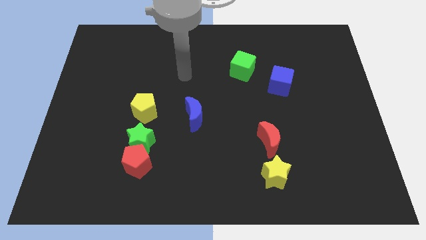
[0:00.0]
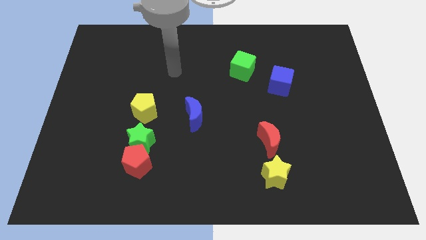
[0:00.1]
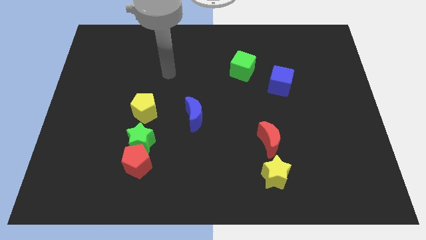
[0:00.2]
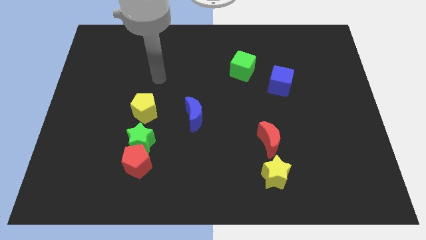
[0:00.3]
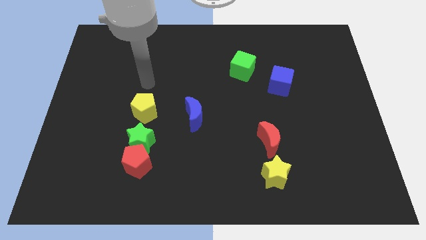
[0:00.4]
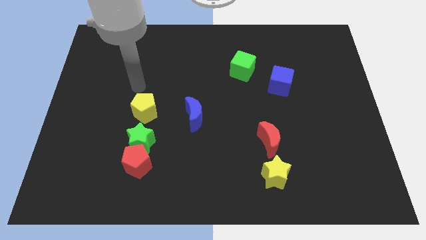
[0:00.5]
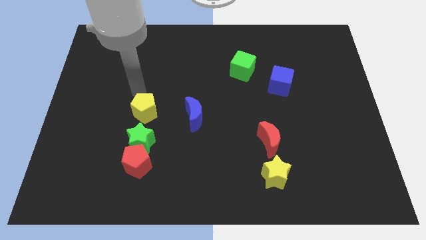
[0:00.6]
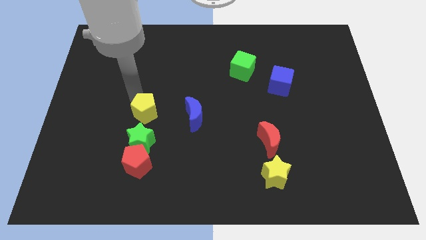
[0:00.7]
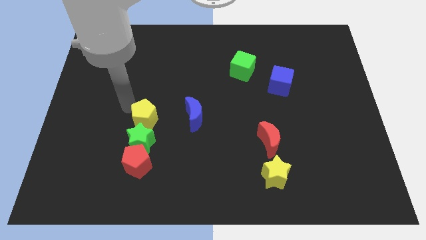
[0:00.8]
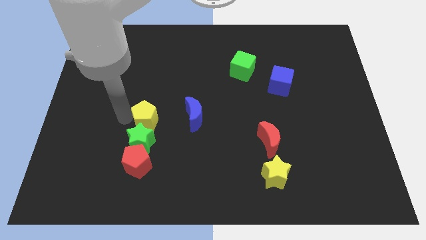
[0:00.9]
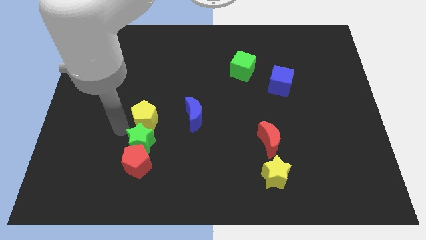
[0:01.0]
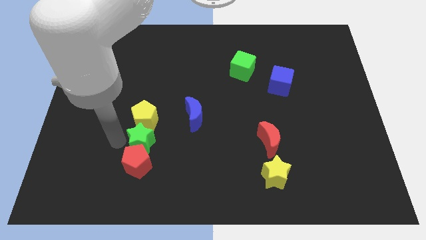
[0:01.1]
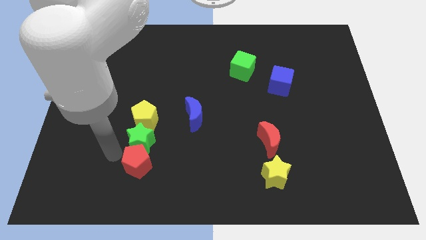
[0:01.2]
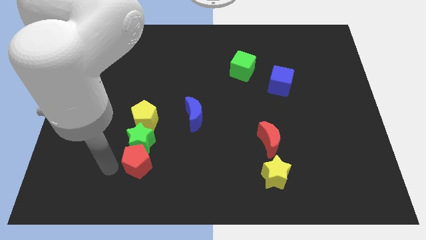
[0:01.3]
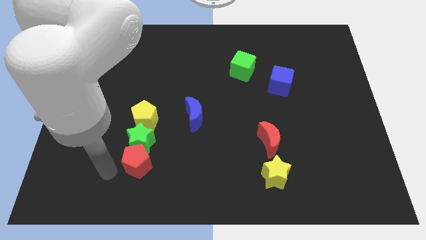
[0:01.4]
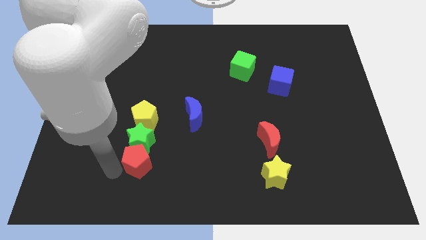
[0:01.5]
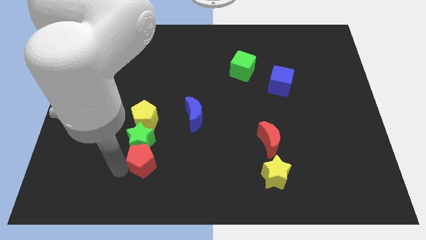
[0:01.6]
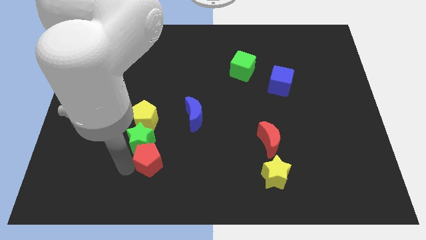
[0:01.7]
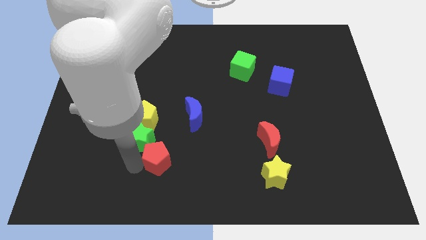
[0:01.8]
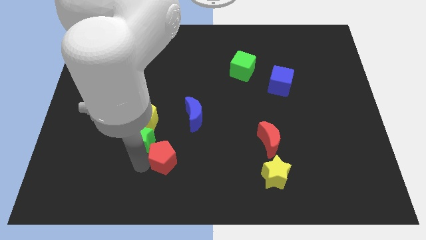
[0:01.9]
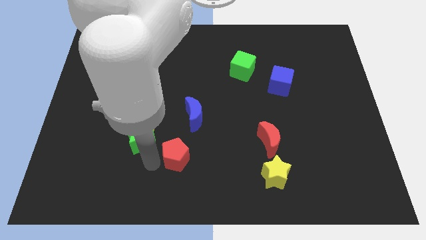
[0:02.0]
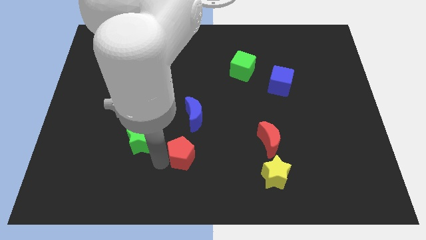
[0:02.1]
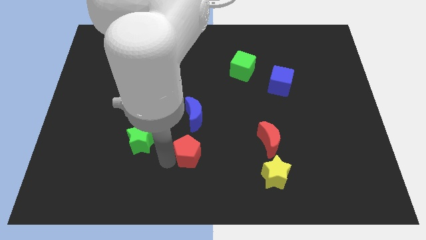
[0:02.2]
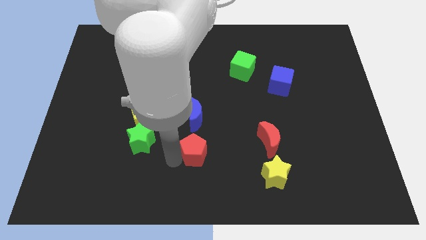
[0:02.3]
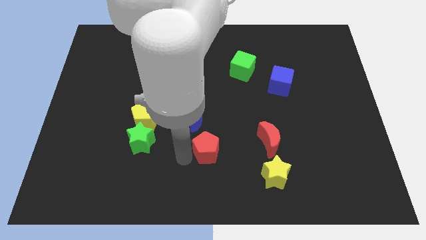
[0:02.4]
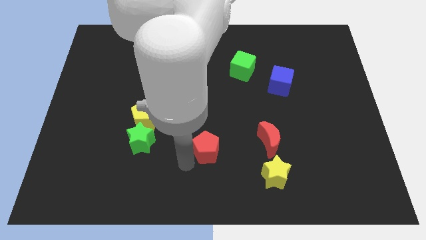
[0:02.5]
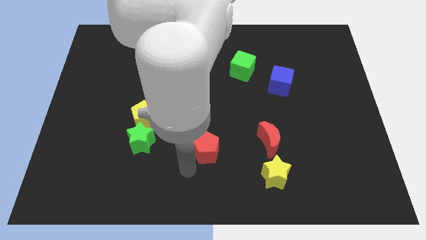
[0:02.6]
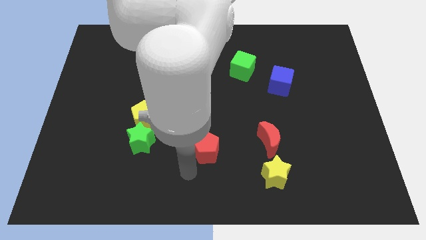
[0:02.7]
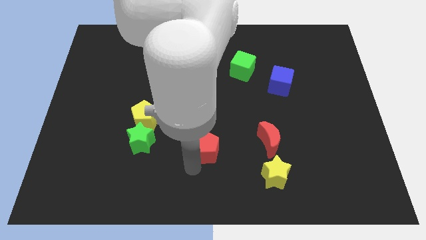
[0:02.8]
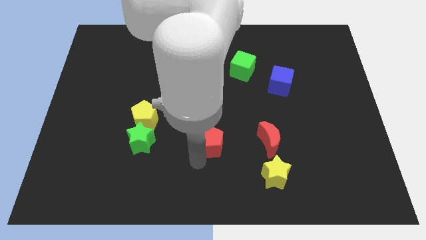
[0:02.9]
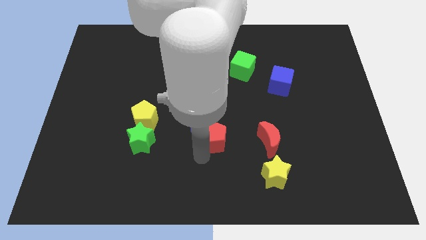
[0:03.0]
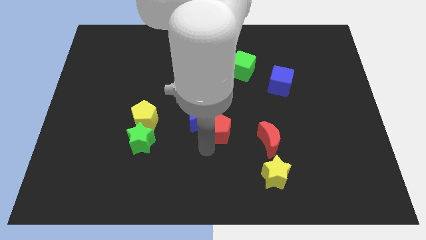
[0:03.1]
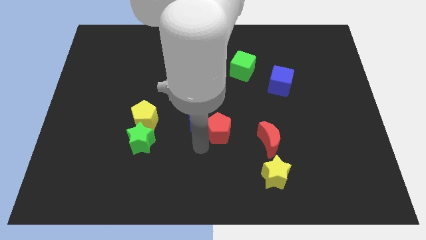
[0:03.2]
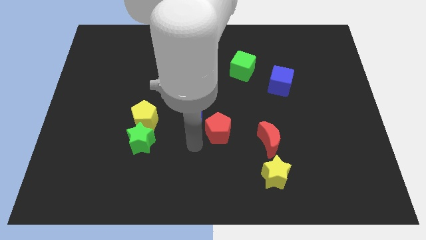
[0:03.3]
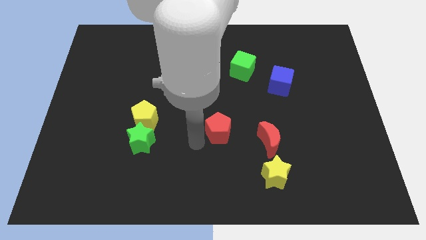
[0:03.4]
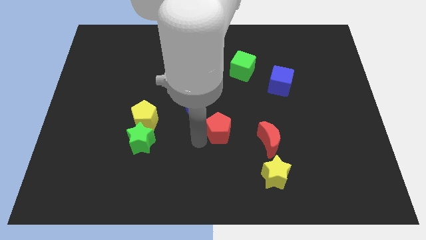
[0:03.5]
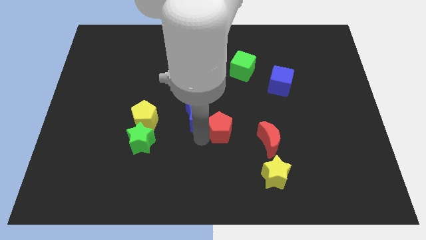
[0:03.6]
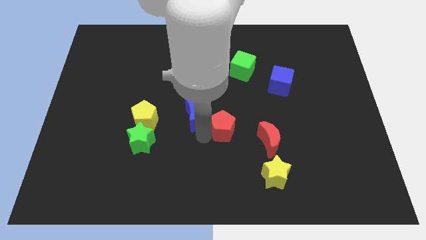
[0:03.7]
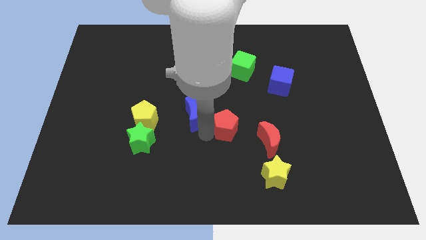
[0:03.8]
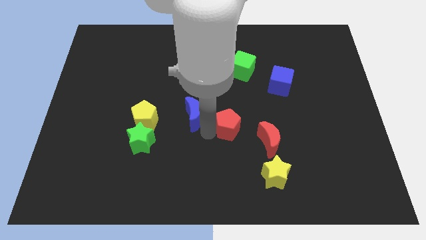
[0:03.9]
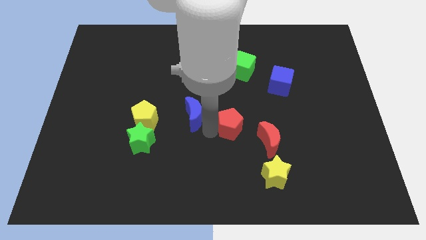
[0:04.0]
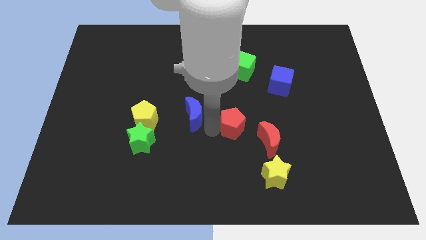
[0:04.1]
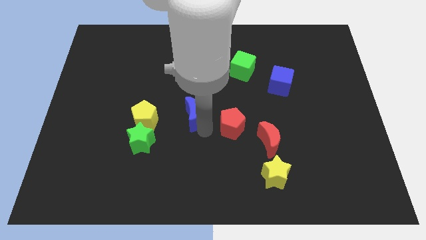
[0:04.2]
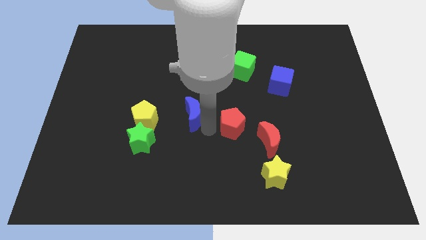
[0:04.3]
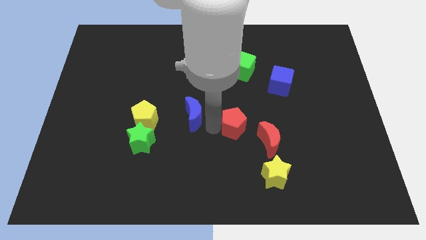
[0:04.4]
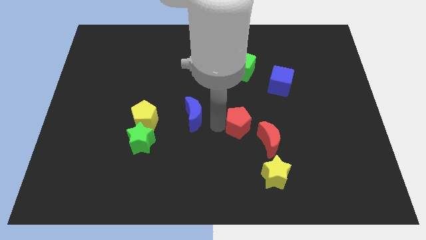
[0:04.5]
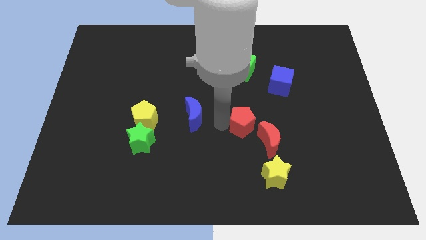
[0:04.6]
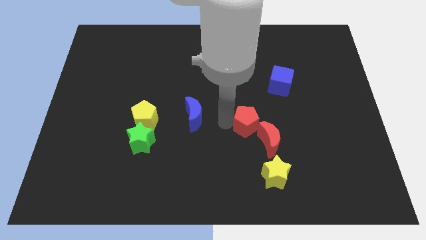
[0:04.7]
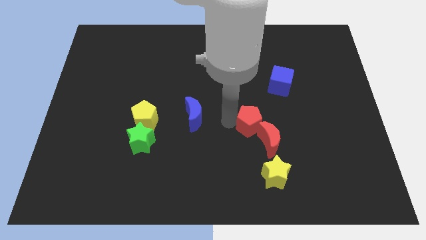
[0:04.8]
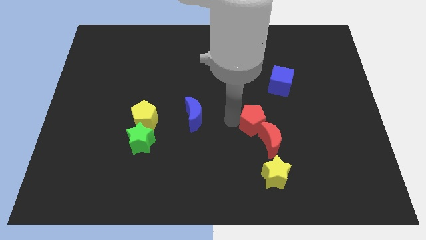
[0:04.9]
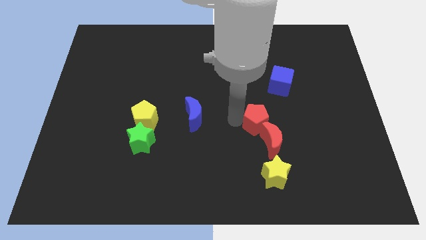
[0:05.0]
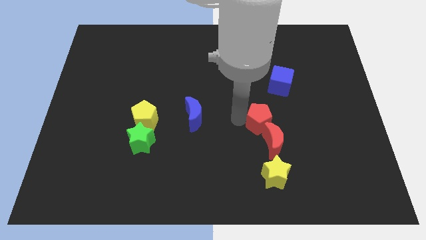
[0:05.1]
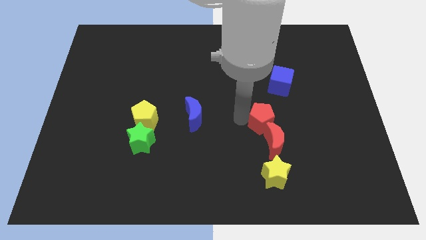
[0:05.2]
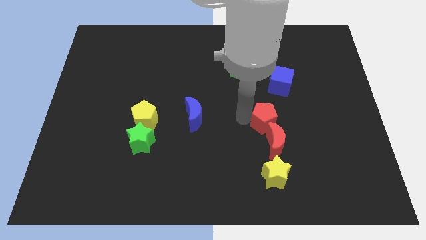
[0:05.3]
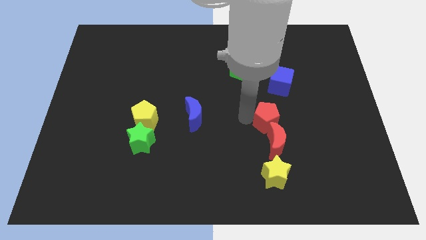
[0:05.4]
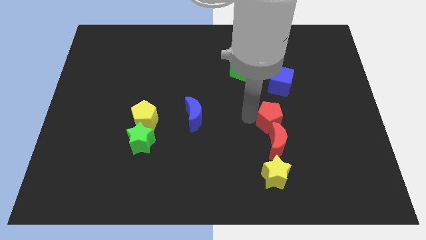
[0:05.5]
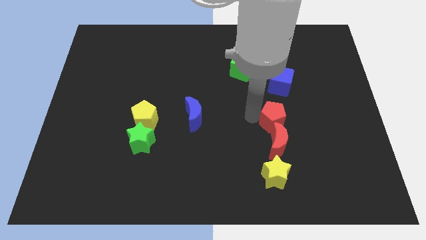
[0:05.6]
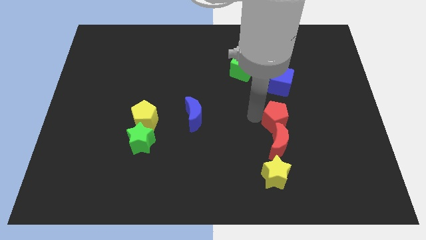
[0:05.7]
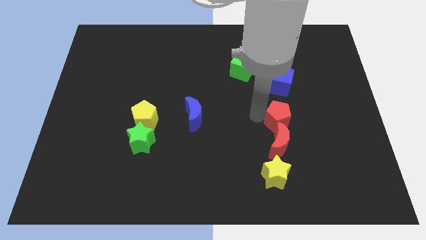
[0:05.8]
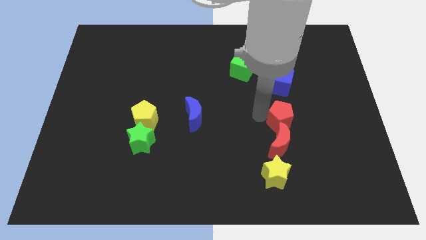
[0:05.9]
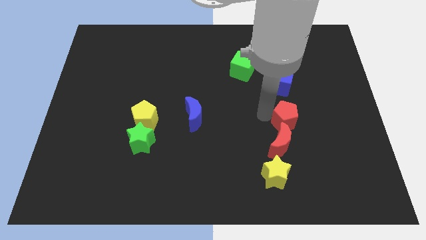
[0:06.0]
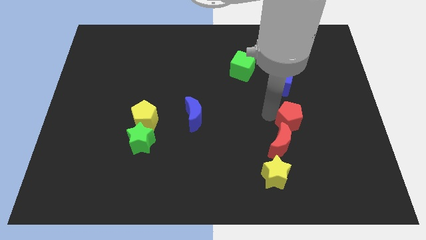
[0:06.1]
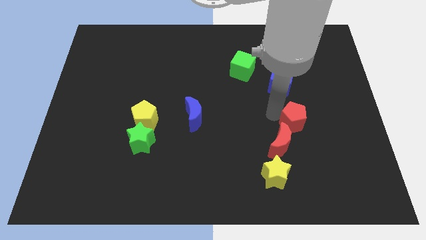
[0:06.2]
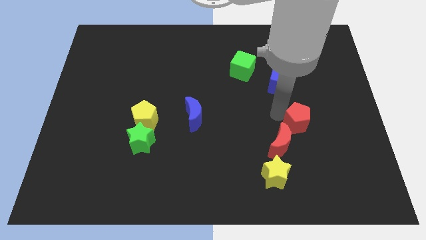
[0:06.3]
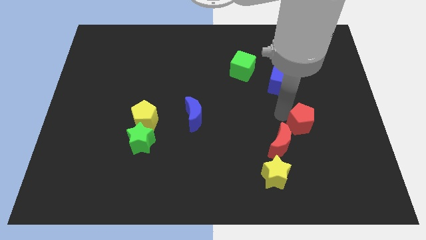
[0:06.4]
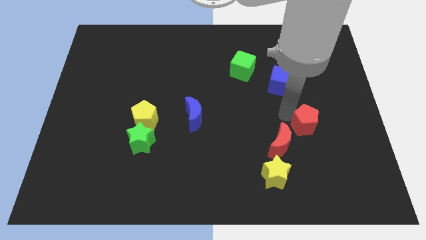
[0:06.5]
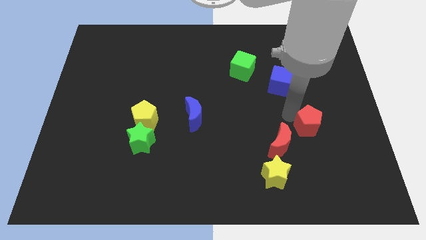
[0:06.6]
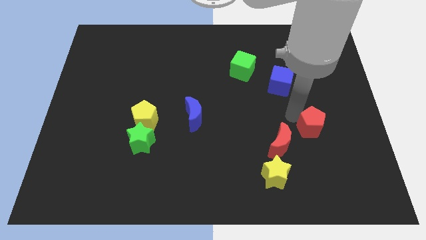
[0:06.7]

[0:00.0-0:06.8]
put the red pentagon just right of the red moon
